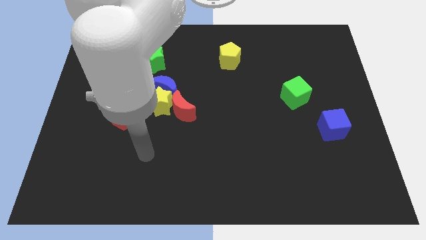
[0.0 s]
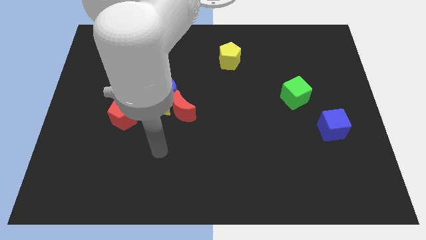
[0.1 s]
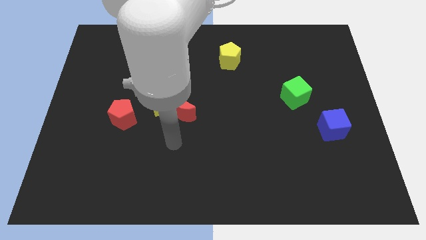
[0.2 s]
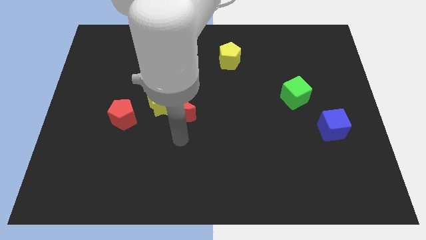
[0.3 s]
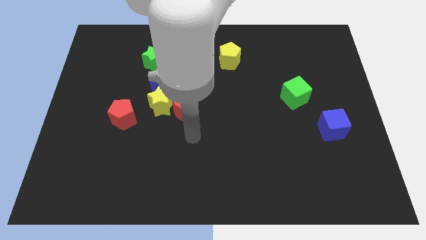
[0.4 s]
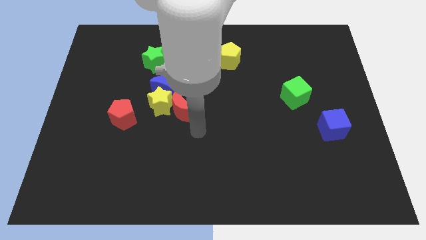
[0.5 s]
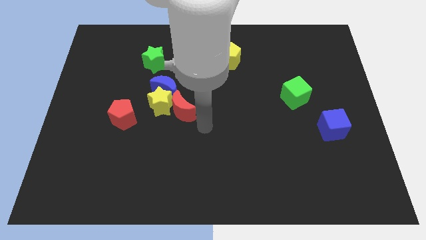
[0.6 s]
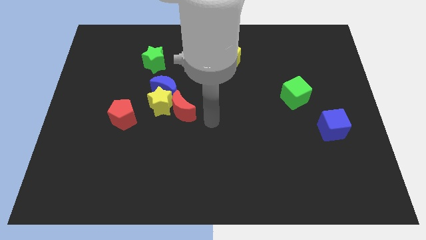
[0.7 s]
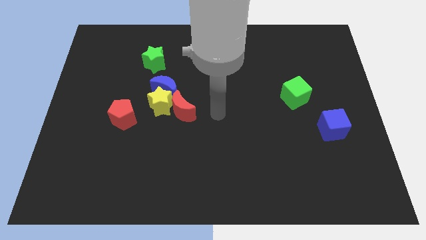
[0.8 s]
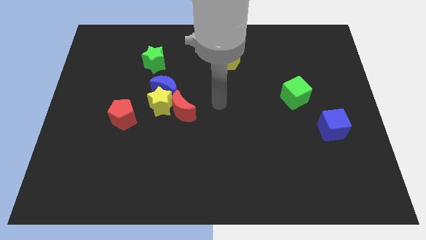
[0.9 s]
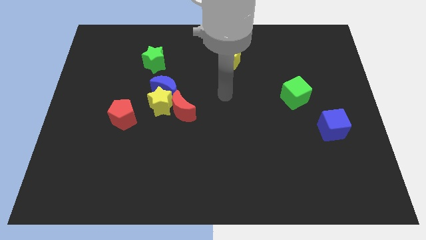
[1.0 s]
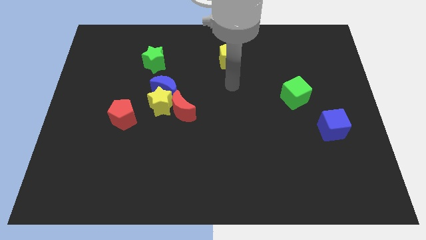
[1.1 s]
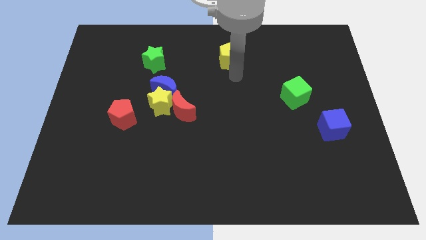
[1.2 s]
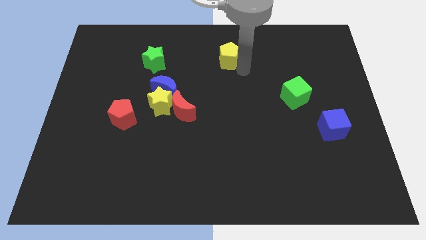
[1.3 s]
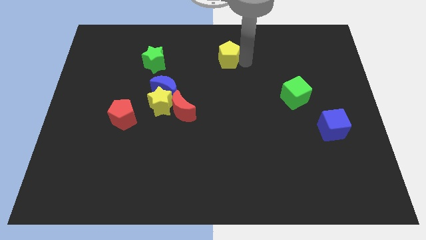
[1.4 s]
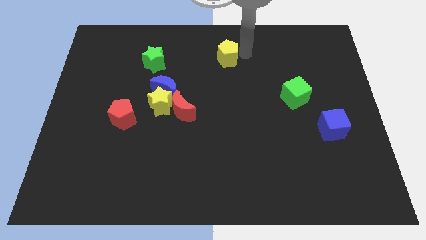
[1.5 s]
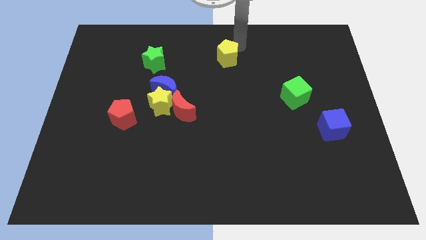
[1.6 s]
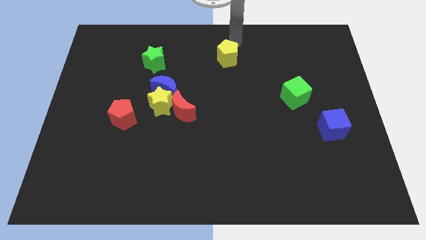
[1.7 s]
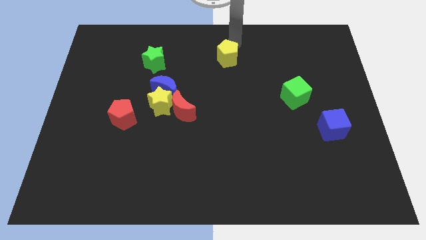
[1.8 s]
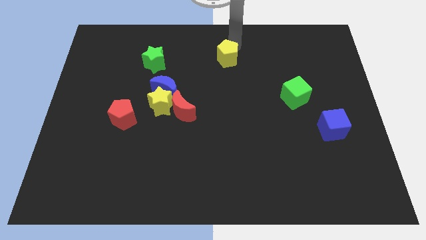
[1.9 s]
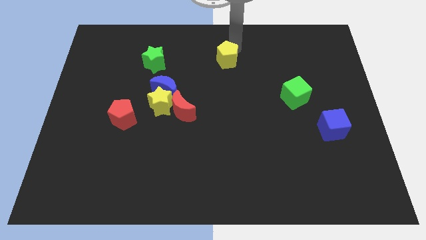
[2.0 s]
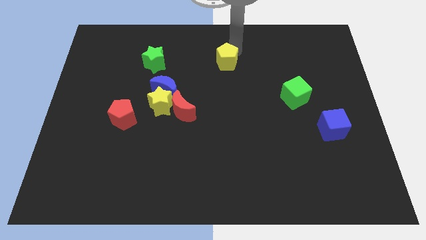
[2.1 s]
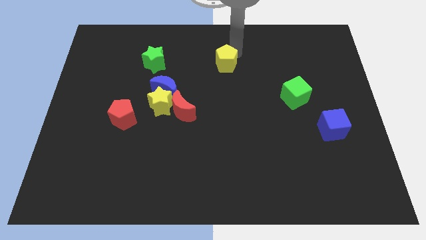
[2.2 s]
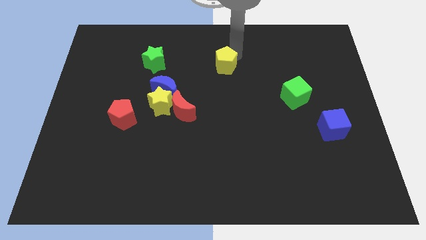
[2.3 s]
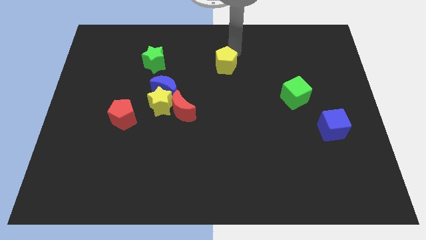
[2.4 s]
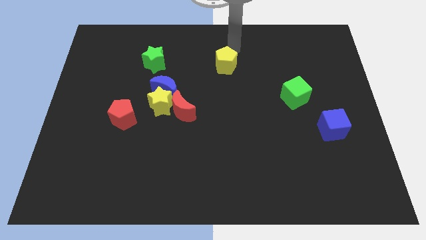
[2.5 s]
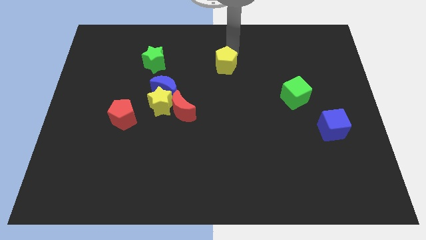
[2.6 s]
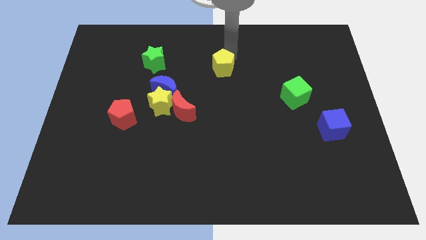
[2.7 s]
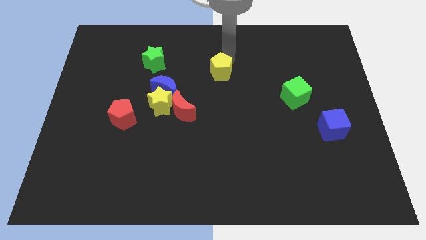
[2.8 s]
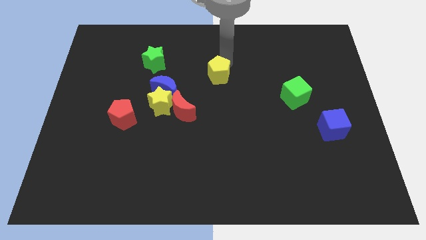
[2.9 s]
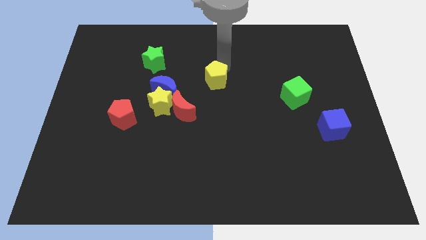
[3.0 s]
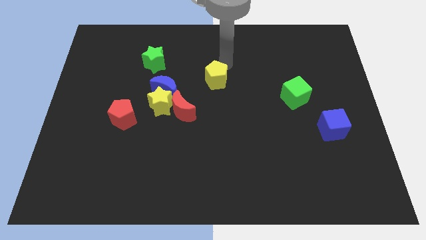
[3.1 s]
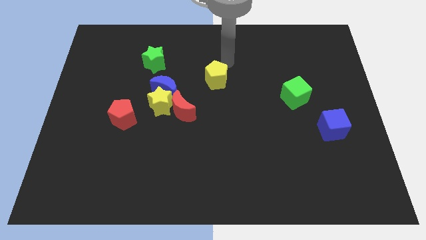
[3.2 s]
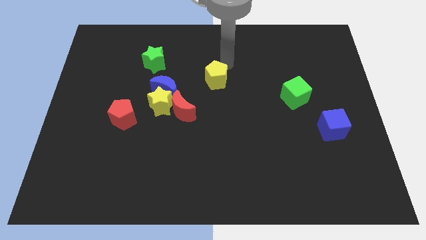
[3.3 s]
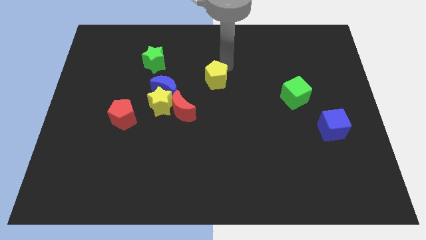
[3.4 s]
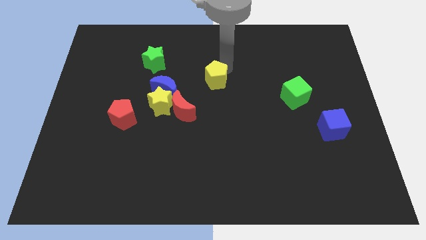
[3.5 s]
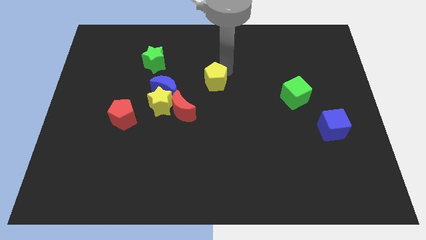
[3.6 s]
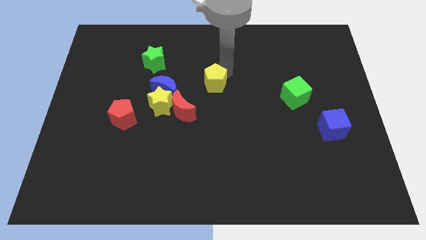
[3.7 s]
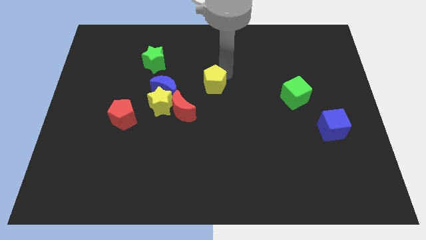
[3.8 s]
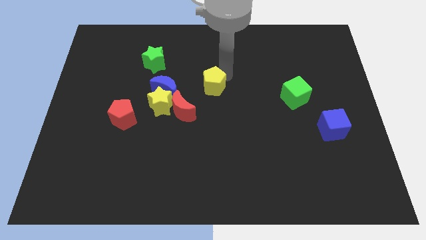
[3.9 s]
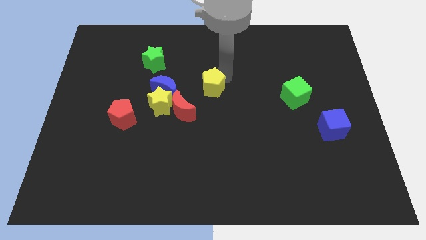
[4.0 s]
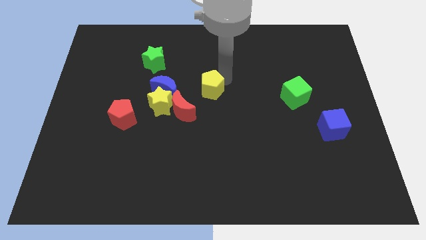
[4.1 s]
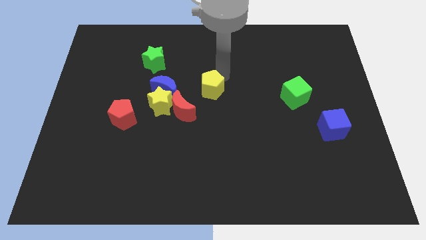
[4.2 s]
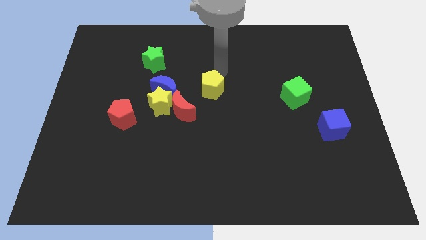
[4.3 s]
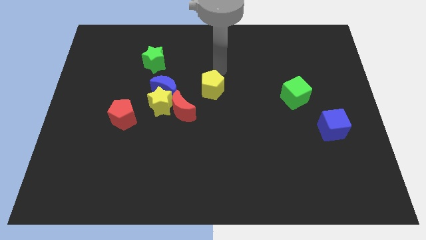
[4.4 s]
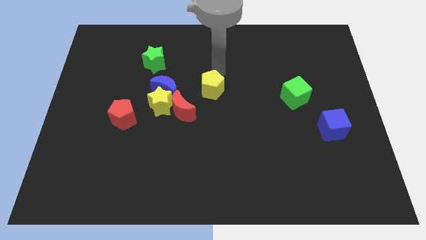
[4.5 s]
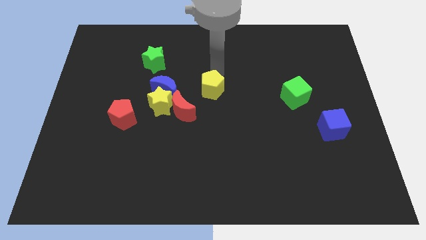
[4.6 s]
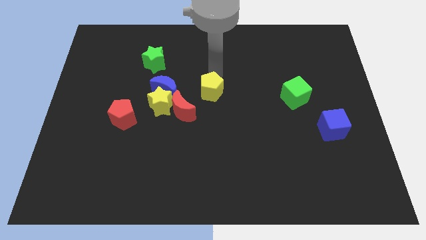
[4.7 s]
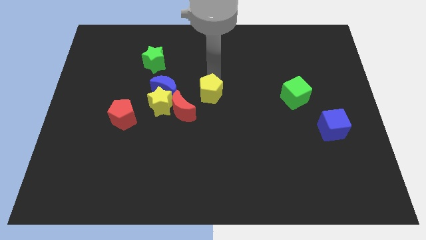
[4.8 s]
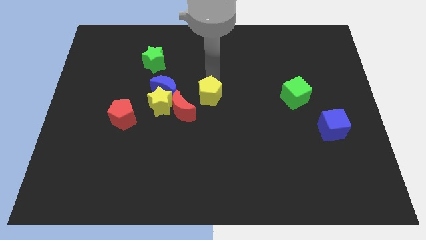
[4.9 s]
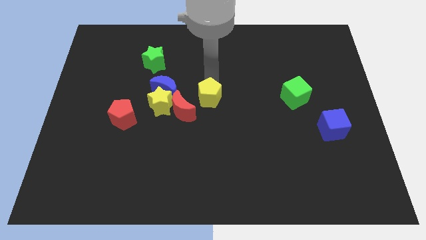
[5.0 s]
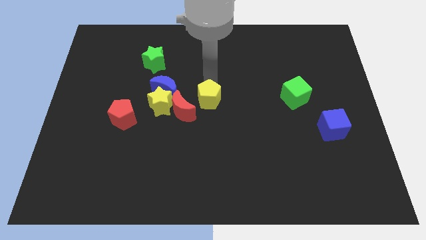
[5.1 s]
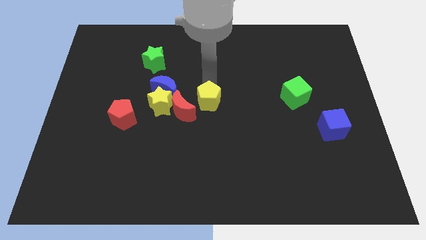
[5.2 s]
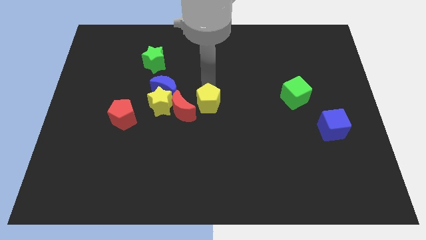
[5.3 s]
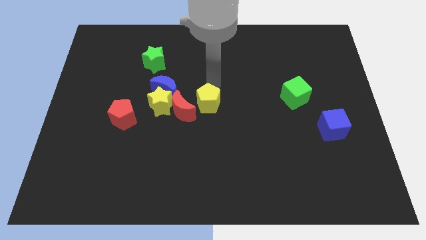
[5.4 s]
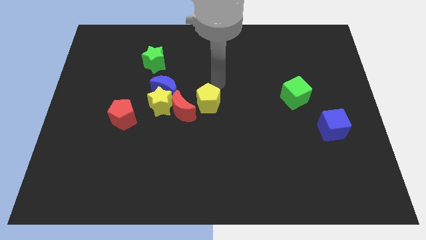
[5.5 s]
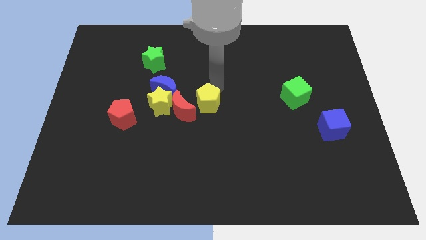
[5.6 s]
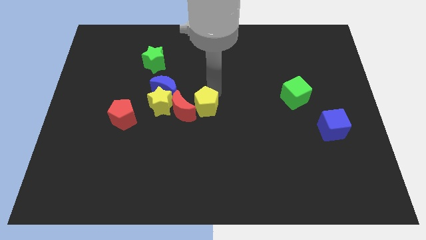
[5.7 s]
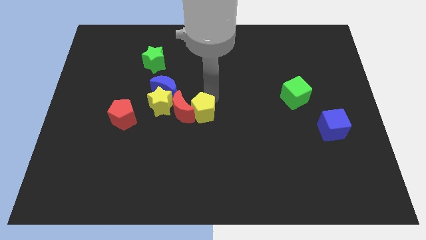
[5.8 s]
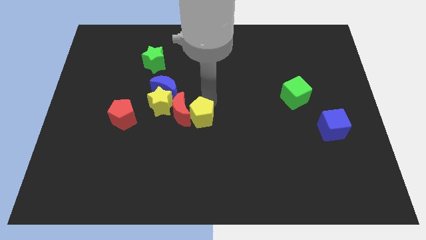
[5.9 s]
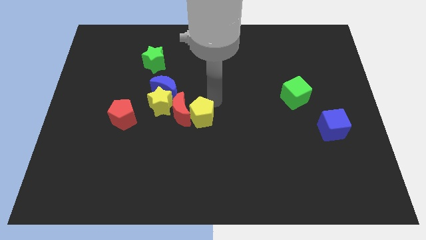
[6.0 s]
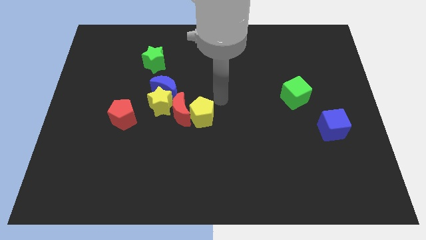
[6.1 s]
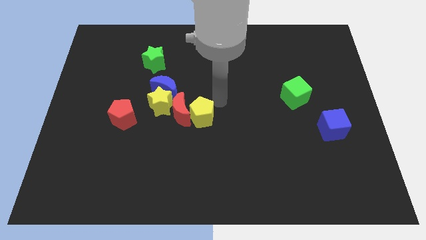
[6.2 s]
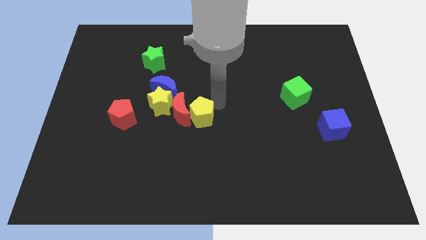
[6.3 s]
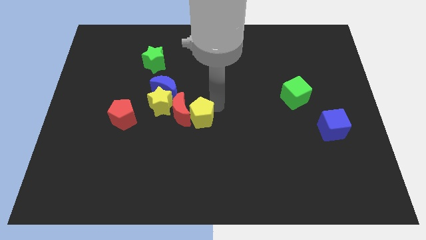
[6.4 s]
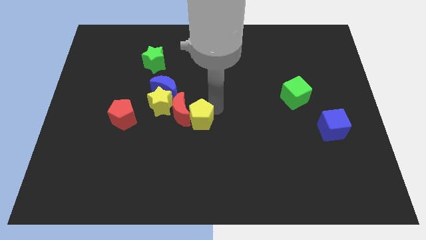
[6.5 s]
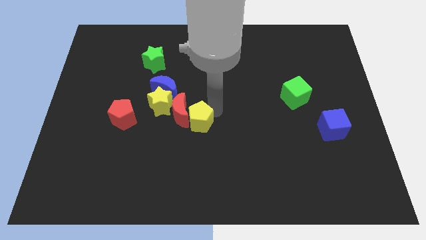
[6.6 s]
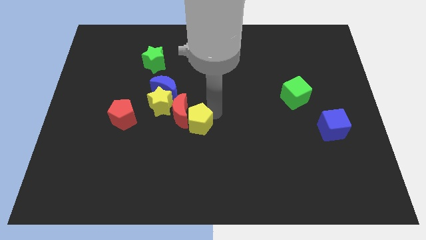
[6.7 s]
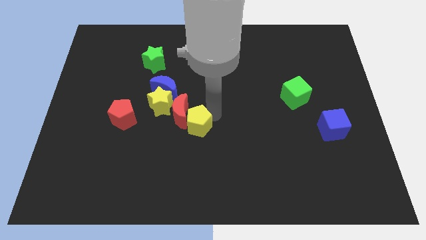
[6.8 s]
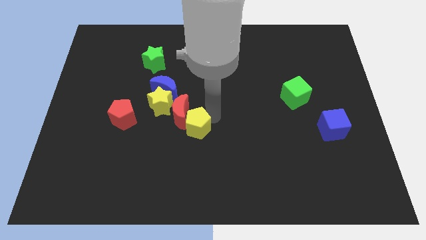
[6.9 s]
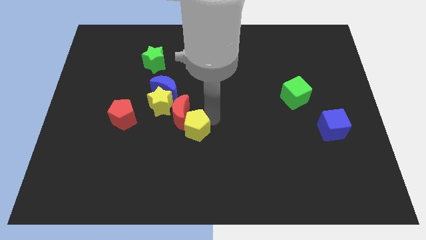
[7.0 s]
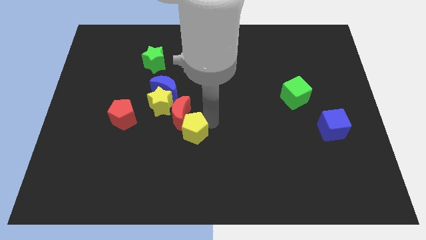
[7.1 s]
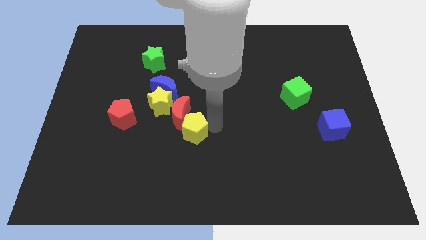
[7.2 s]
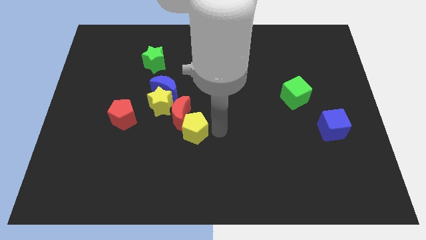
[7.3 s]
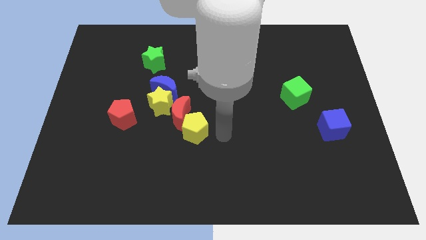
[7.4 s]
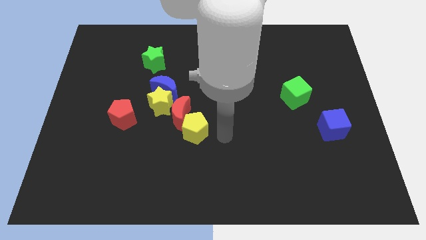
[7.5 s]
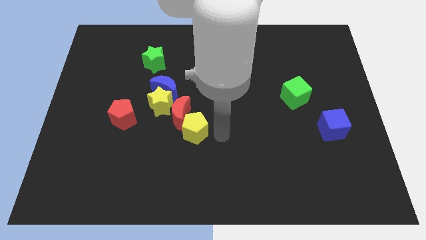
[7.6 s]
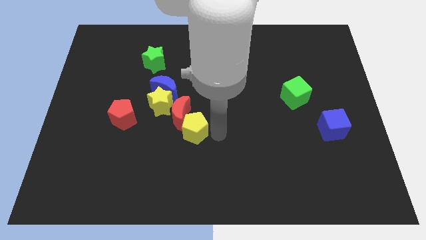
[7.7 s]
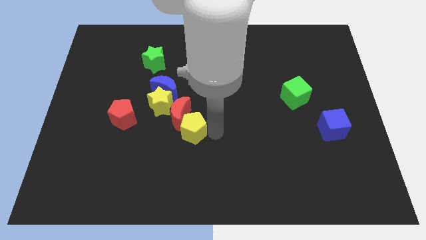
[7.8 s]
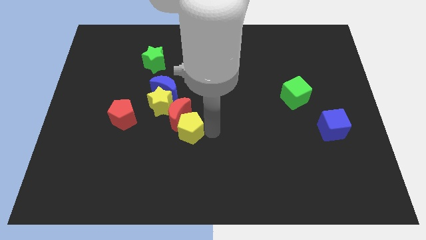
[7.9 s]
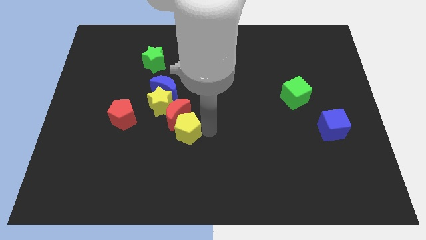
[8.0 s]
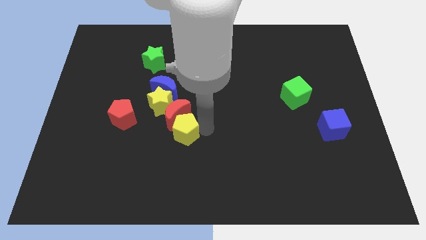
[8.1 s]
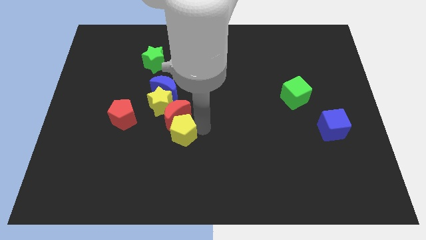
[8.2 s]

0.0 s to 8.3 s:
push the yellow pentagon to the bottom side of the blue moon
